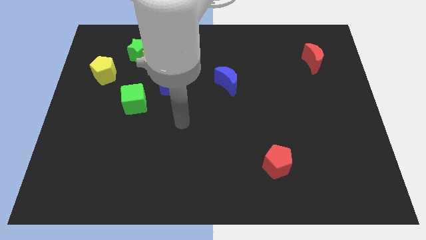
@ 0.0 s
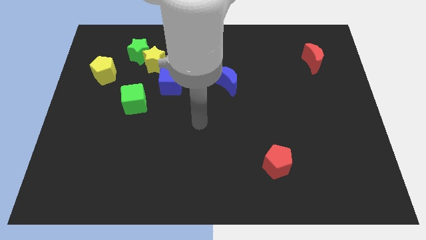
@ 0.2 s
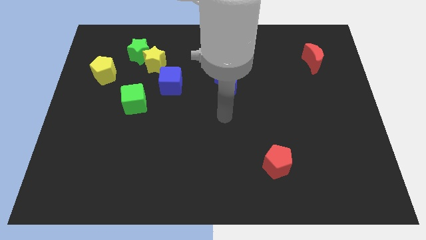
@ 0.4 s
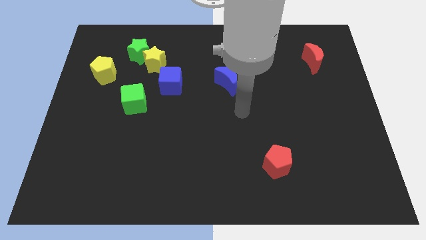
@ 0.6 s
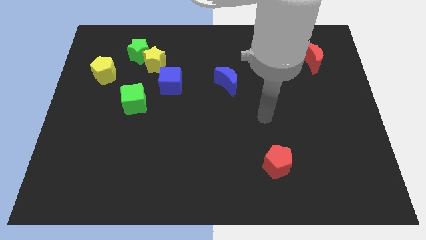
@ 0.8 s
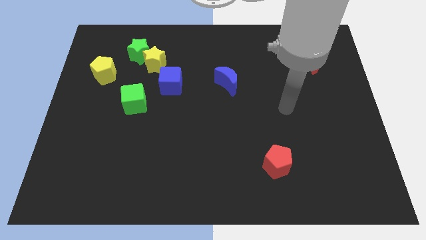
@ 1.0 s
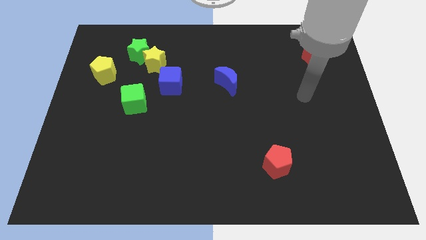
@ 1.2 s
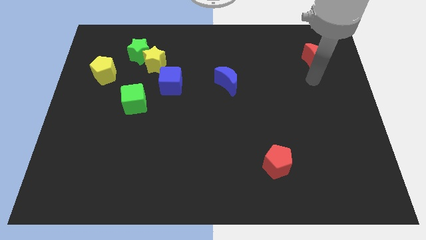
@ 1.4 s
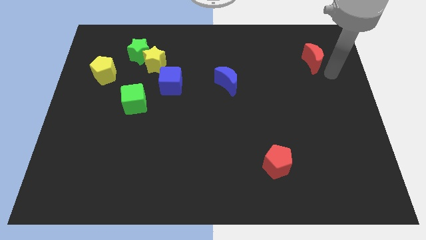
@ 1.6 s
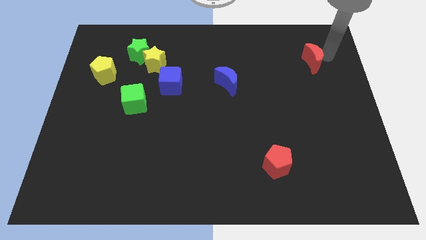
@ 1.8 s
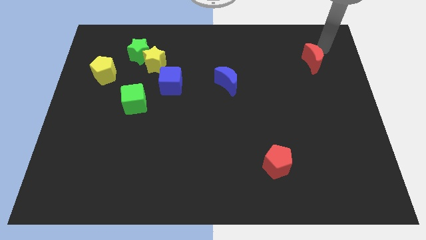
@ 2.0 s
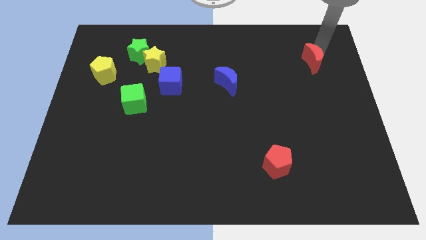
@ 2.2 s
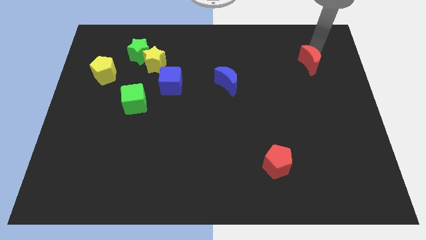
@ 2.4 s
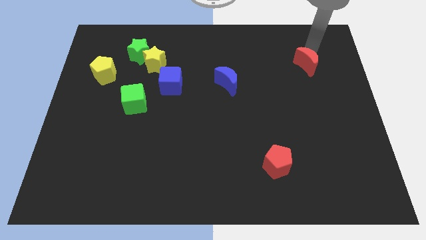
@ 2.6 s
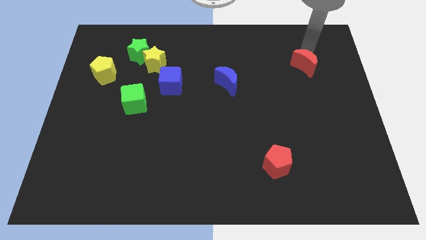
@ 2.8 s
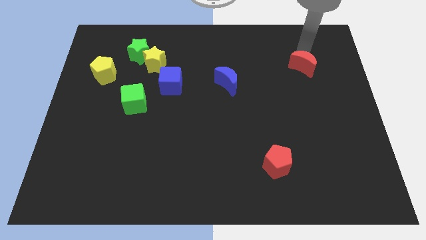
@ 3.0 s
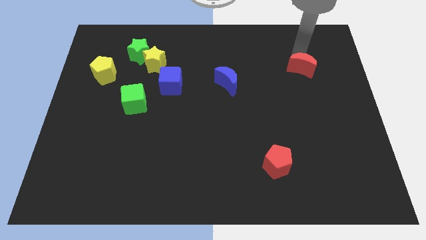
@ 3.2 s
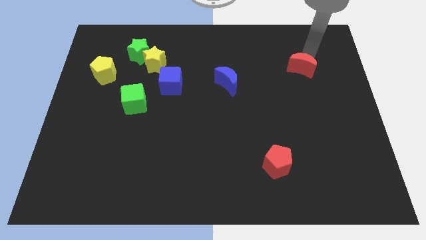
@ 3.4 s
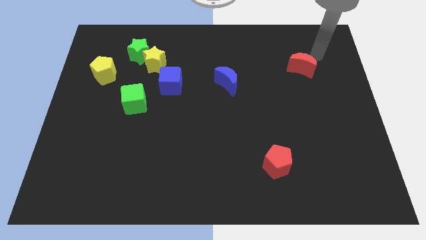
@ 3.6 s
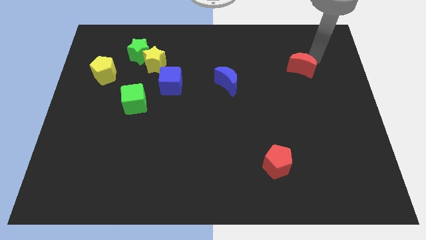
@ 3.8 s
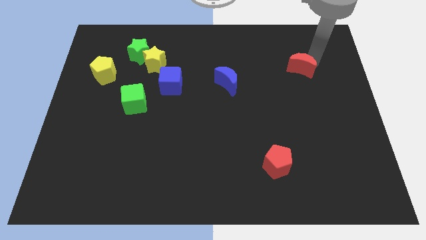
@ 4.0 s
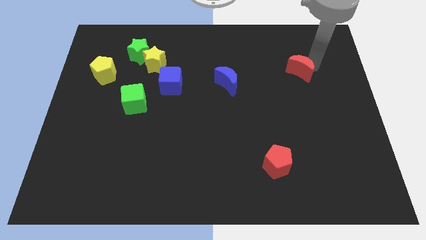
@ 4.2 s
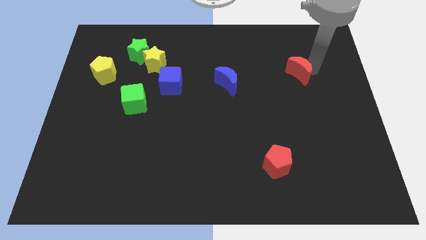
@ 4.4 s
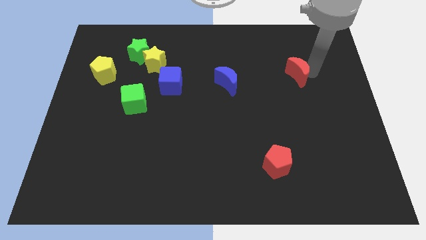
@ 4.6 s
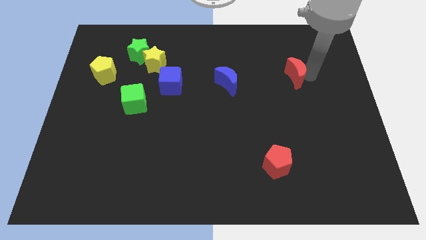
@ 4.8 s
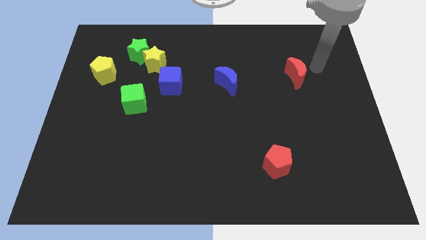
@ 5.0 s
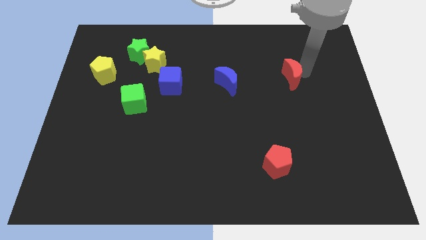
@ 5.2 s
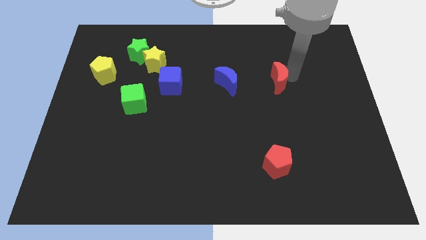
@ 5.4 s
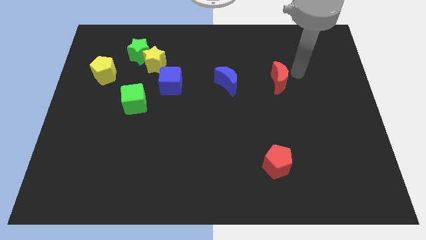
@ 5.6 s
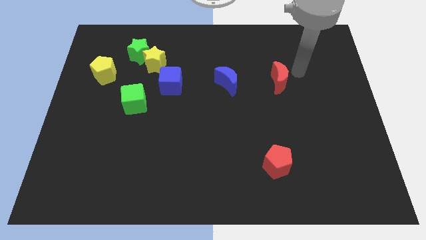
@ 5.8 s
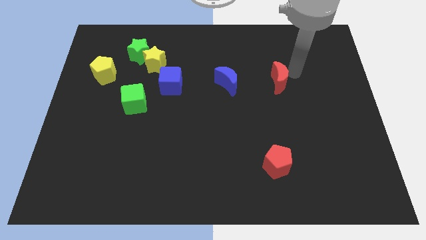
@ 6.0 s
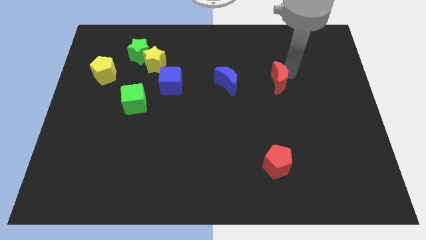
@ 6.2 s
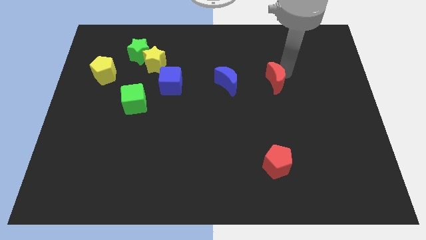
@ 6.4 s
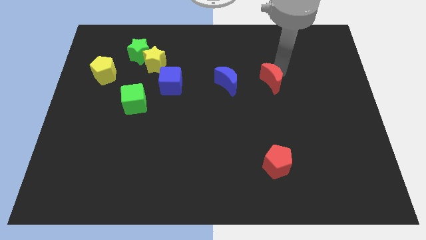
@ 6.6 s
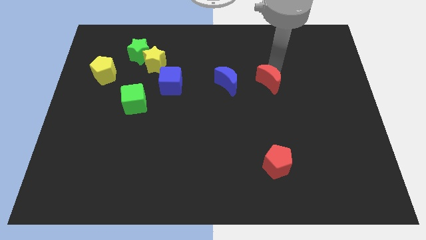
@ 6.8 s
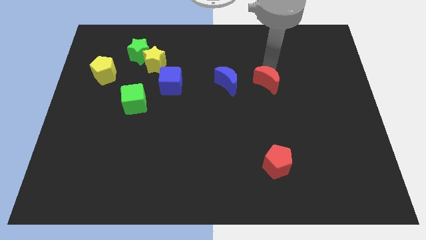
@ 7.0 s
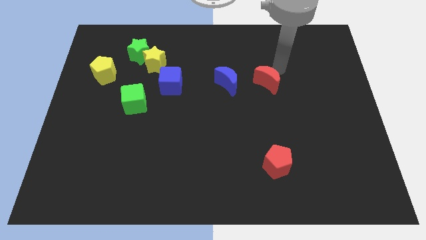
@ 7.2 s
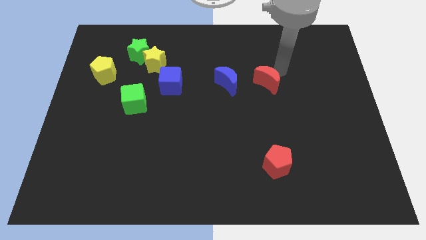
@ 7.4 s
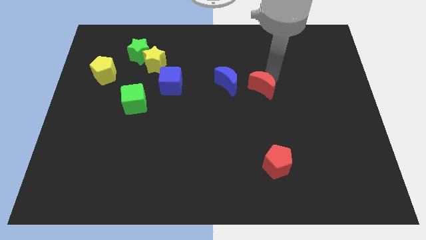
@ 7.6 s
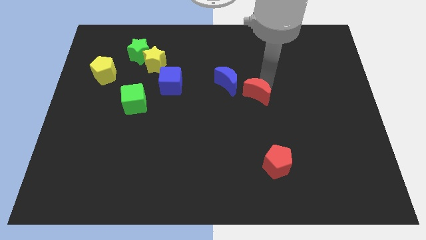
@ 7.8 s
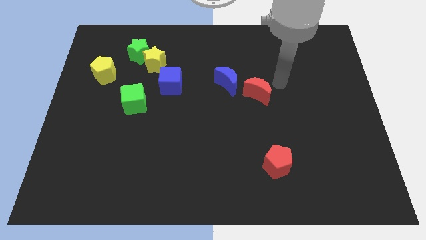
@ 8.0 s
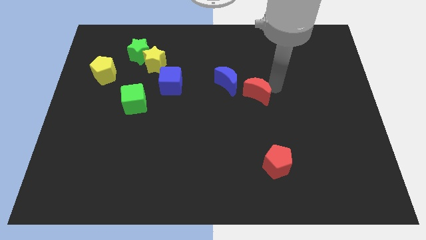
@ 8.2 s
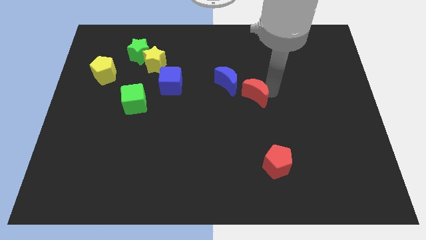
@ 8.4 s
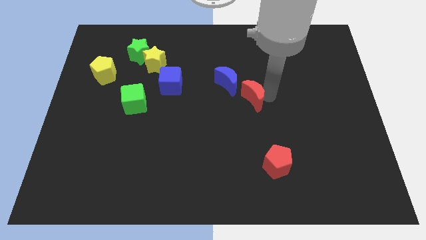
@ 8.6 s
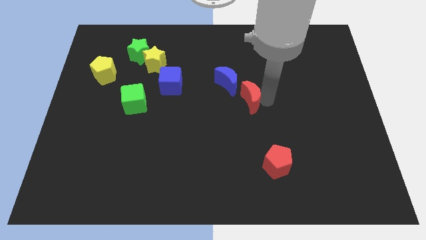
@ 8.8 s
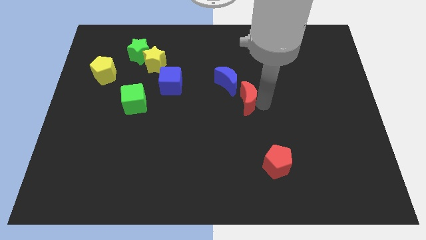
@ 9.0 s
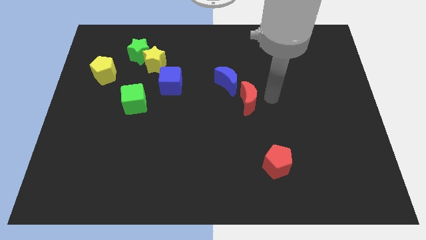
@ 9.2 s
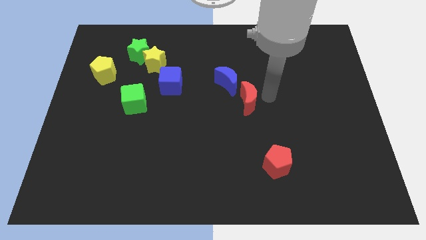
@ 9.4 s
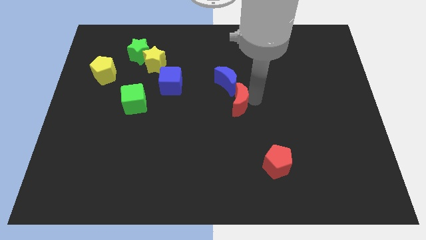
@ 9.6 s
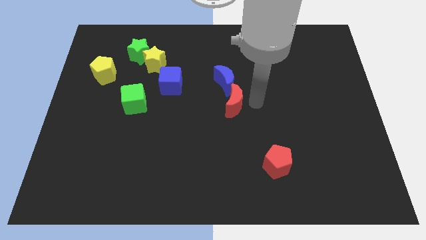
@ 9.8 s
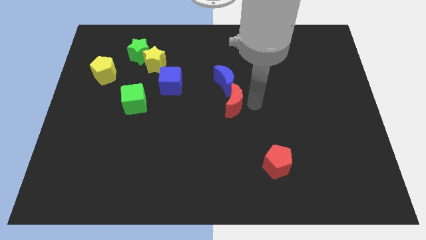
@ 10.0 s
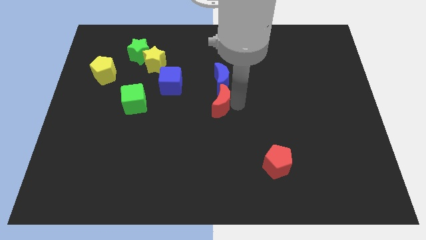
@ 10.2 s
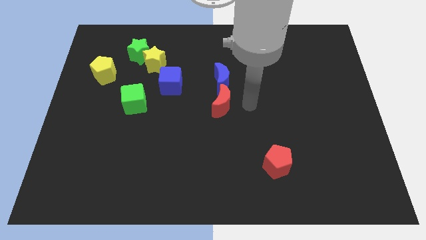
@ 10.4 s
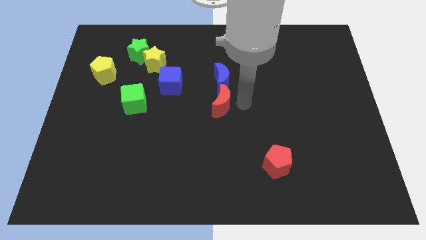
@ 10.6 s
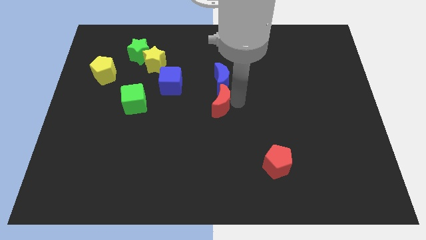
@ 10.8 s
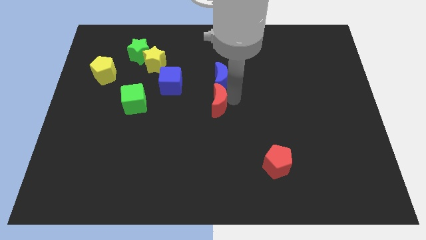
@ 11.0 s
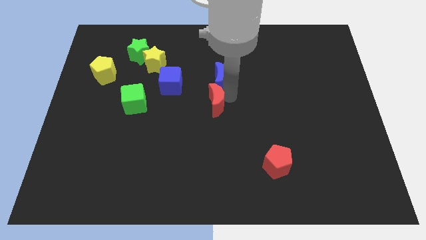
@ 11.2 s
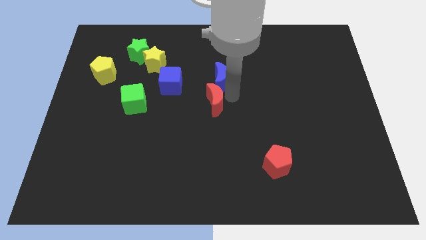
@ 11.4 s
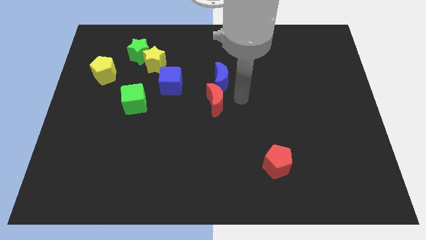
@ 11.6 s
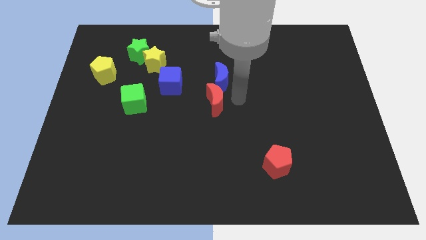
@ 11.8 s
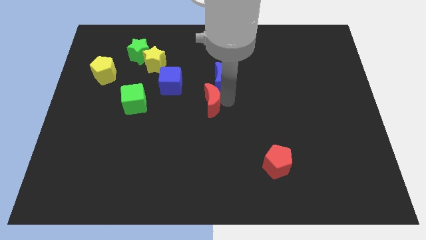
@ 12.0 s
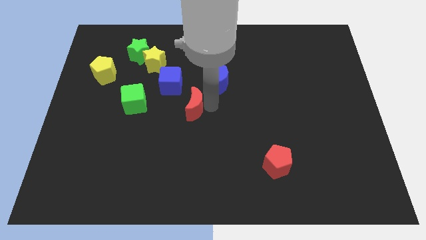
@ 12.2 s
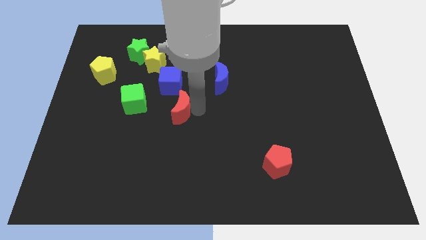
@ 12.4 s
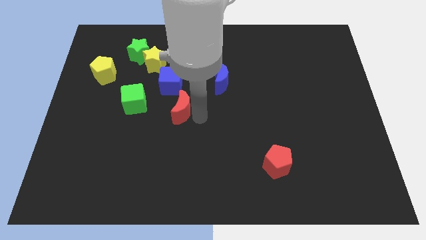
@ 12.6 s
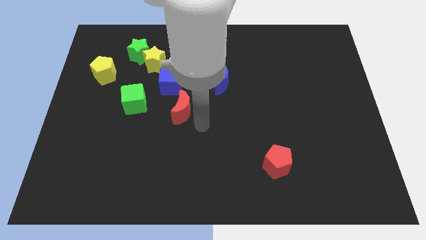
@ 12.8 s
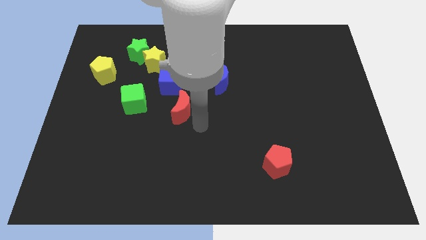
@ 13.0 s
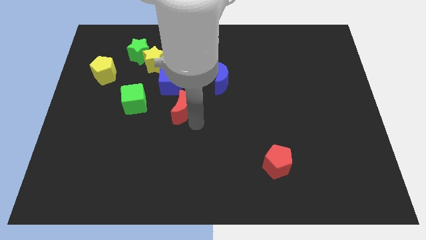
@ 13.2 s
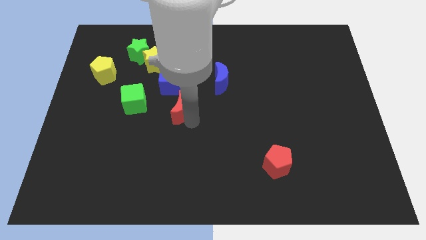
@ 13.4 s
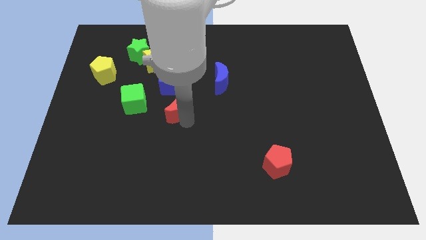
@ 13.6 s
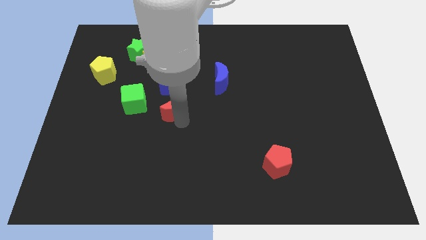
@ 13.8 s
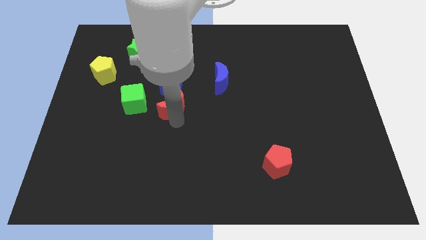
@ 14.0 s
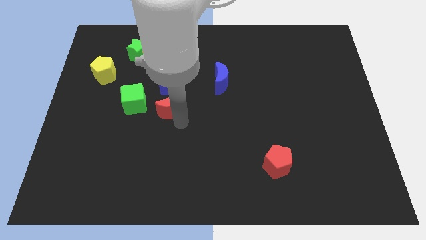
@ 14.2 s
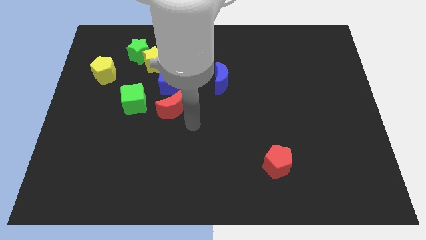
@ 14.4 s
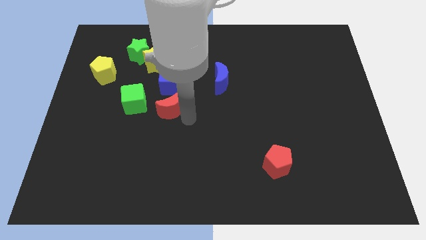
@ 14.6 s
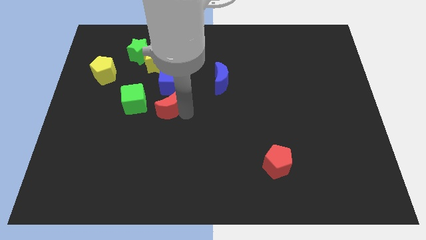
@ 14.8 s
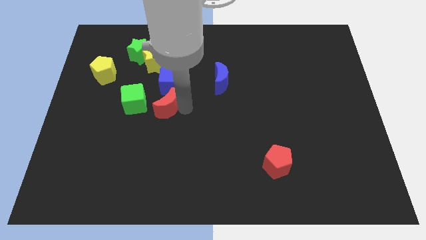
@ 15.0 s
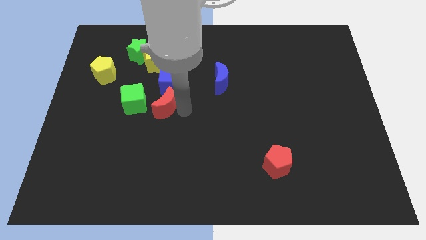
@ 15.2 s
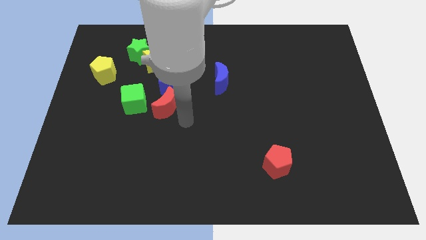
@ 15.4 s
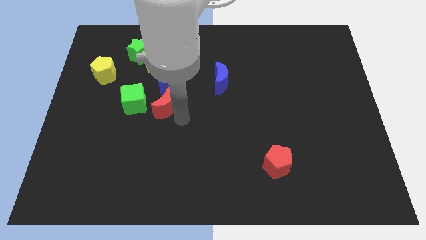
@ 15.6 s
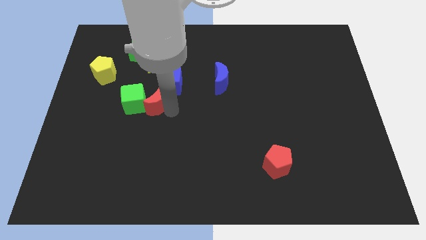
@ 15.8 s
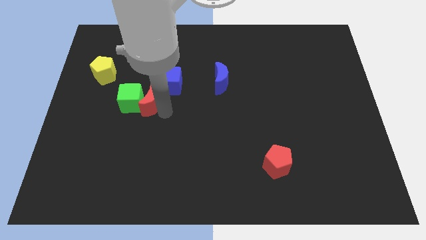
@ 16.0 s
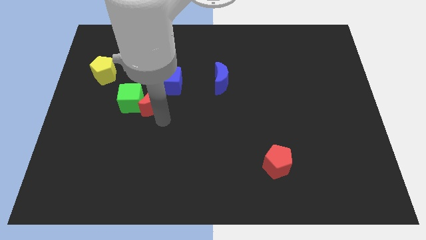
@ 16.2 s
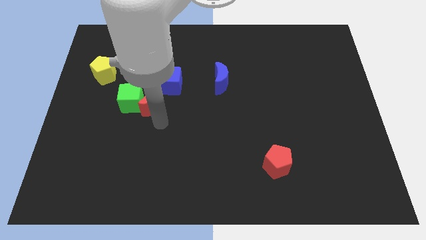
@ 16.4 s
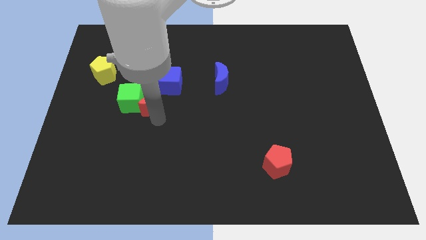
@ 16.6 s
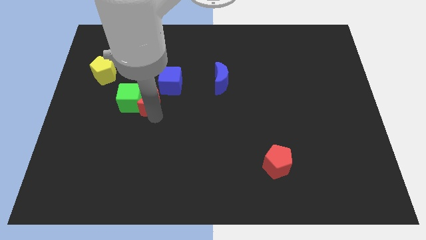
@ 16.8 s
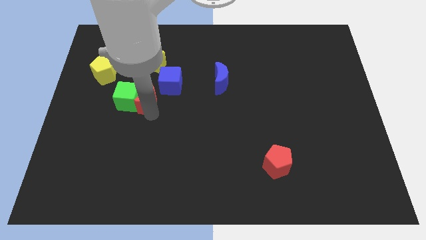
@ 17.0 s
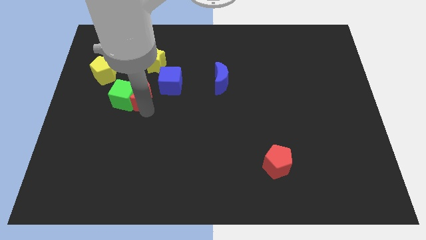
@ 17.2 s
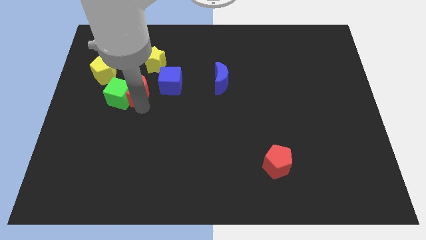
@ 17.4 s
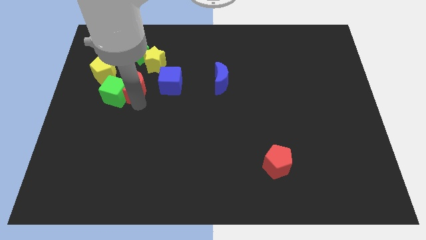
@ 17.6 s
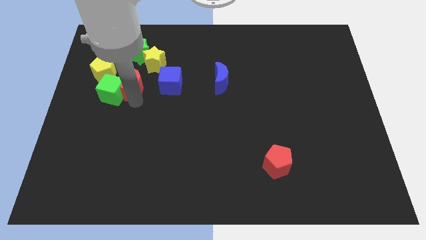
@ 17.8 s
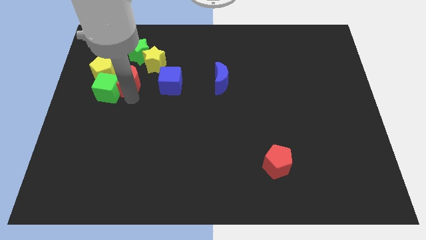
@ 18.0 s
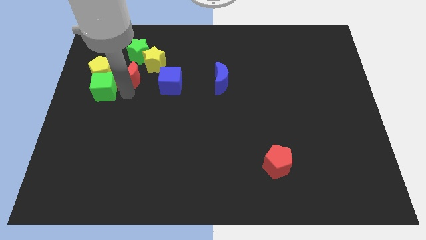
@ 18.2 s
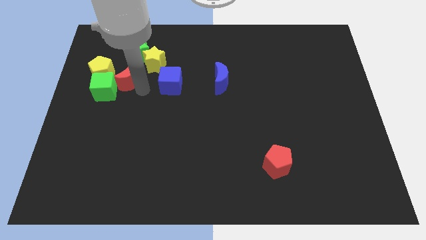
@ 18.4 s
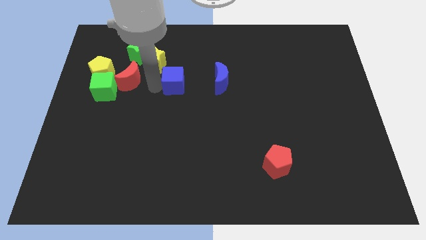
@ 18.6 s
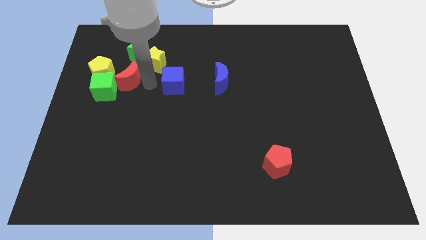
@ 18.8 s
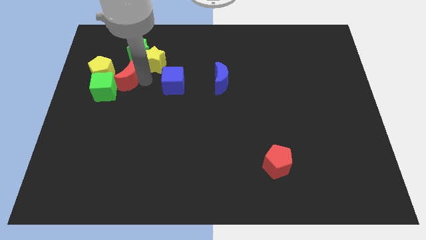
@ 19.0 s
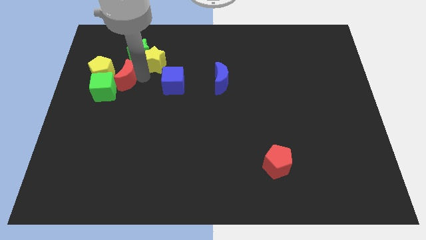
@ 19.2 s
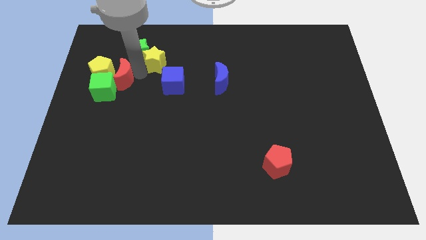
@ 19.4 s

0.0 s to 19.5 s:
move the red moon towards the yellow pentagon
